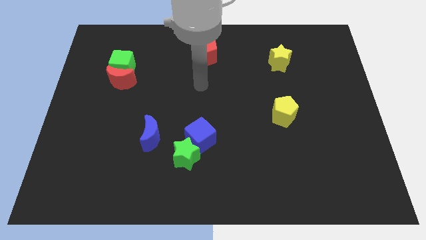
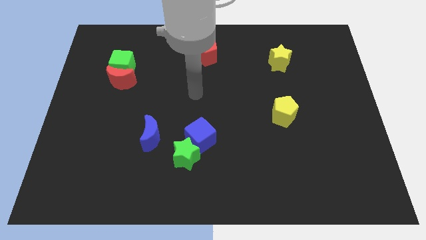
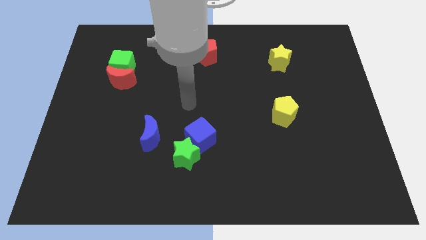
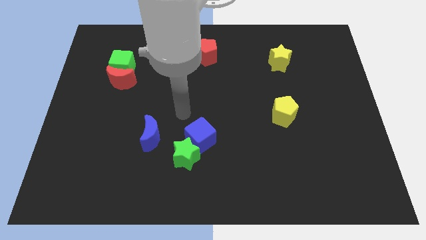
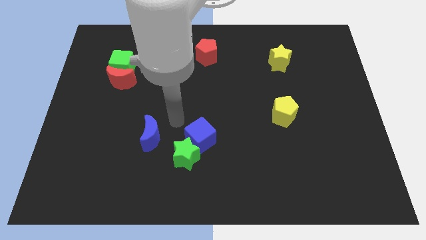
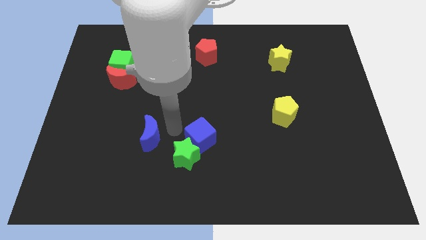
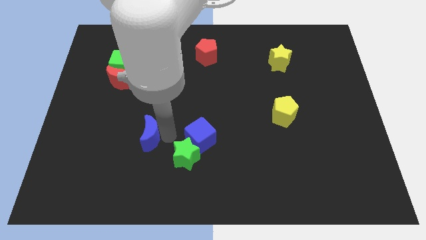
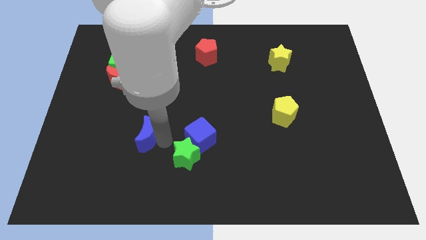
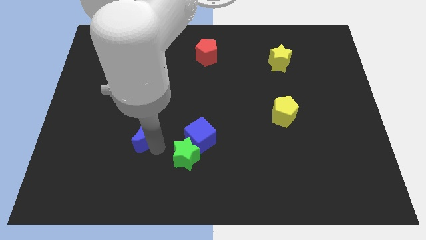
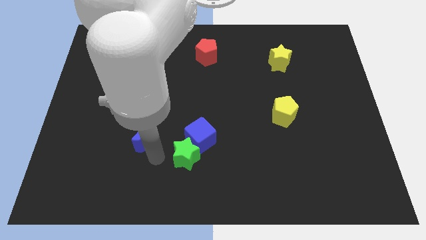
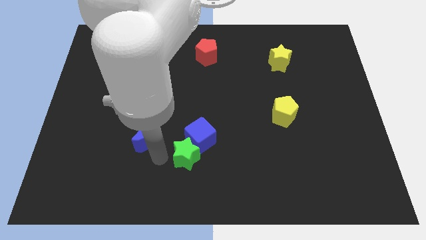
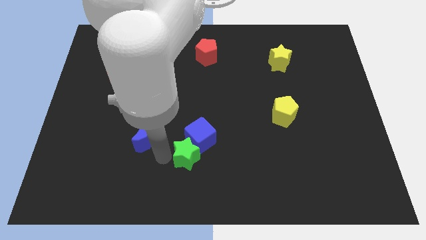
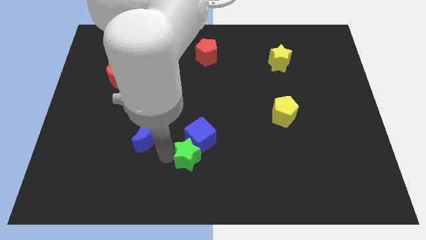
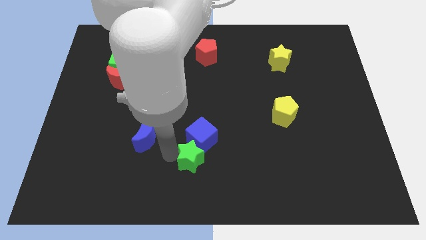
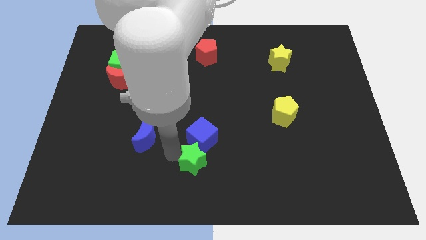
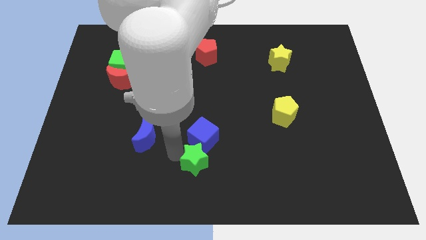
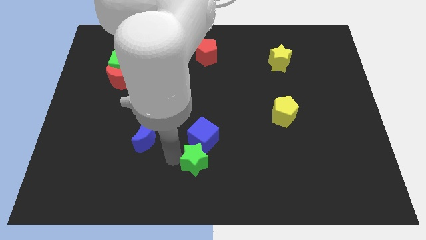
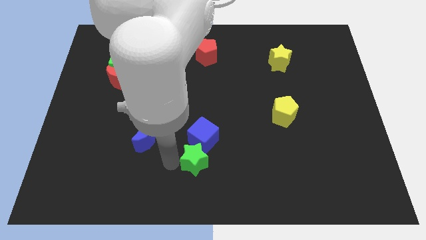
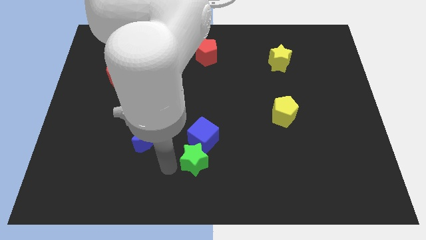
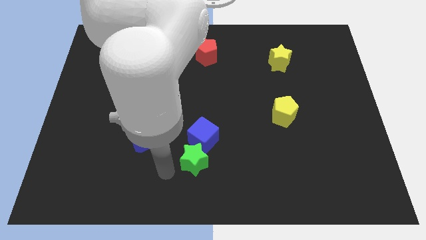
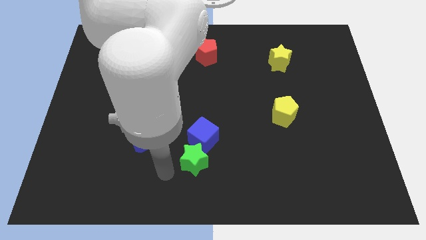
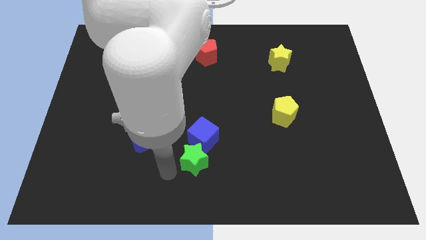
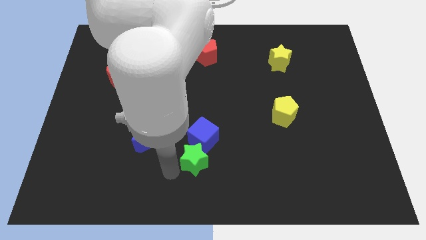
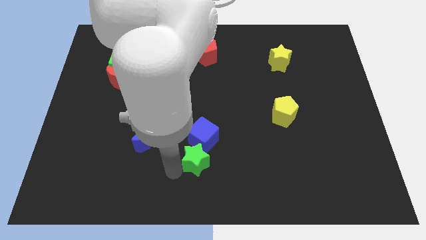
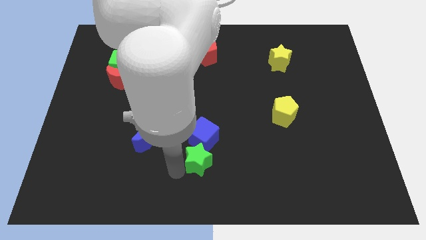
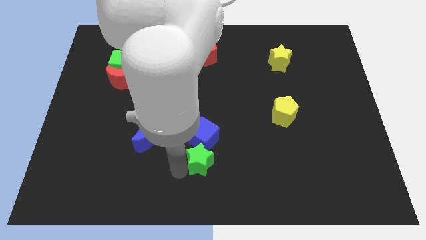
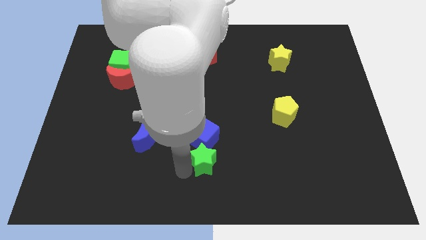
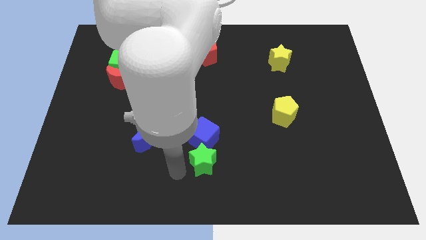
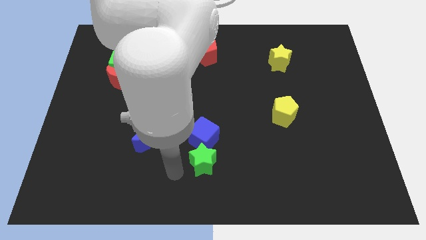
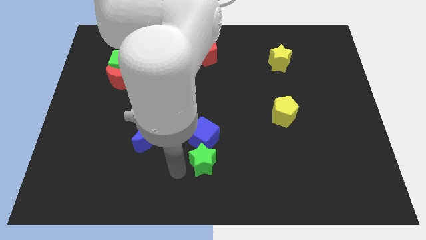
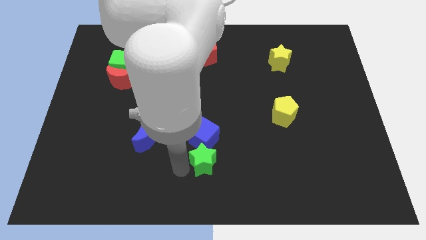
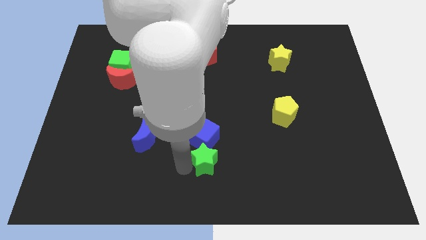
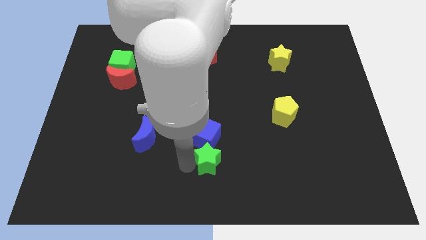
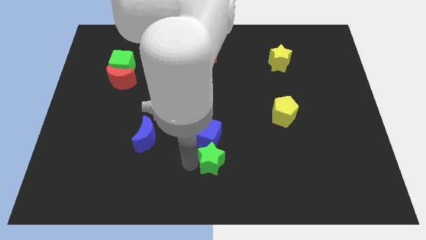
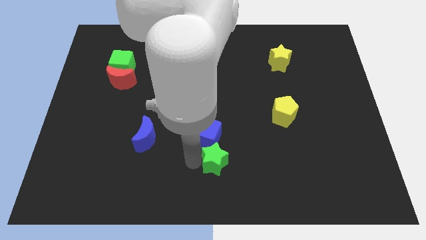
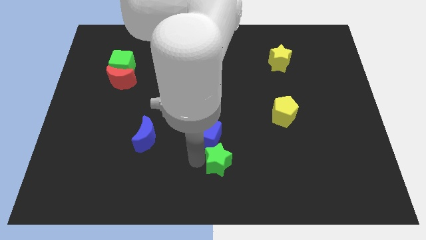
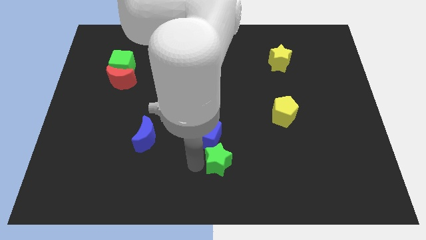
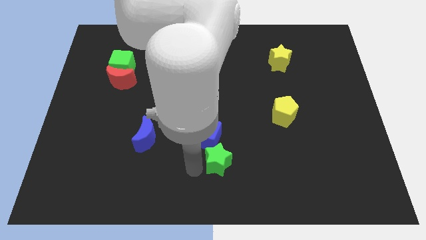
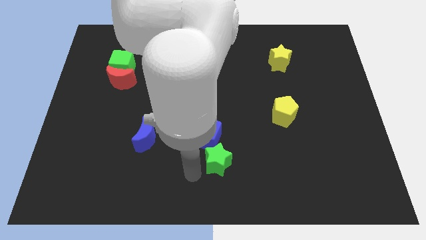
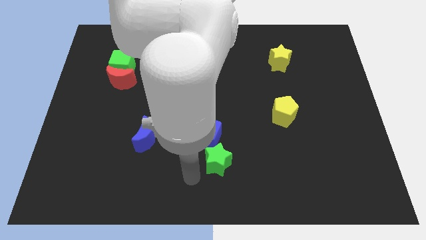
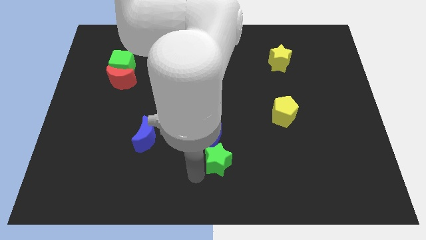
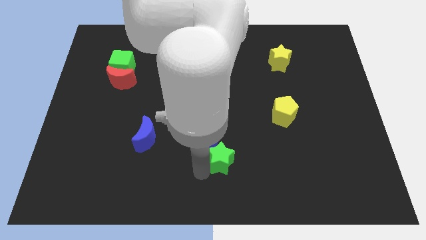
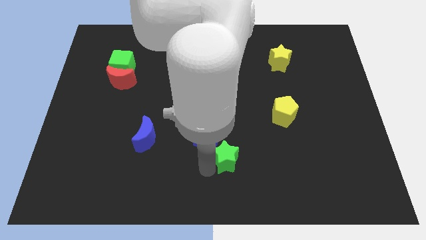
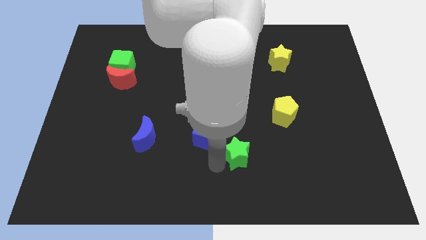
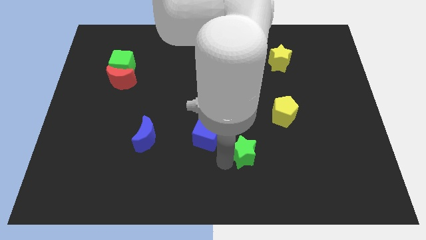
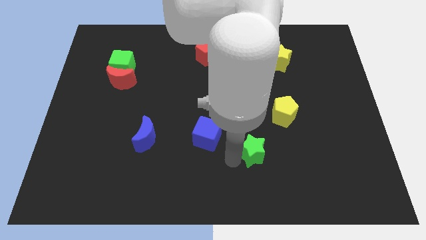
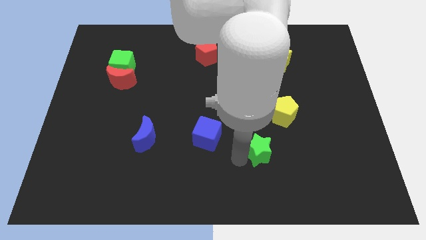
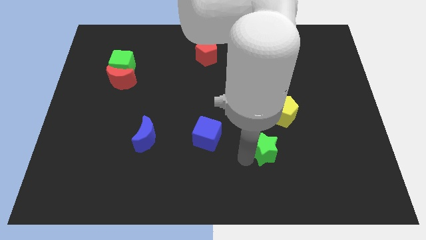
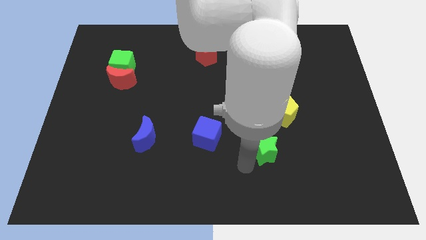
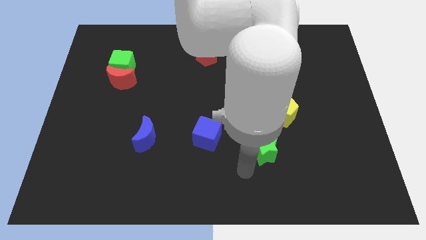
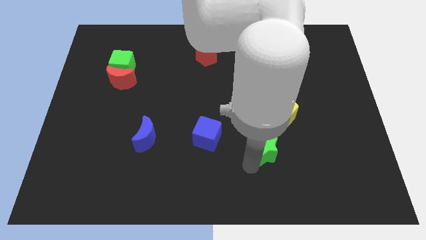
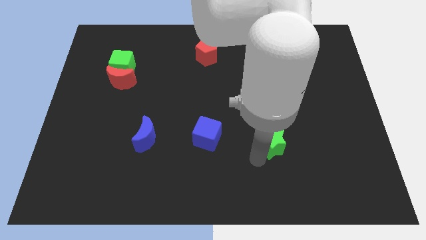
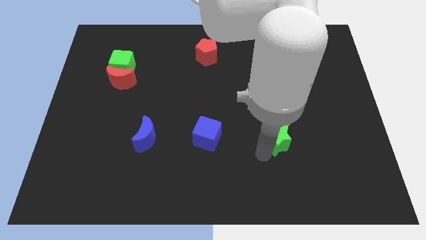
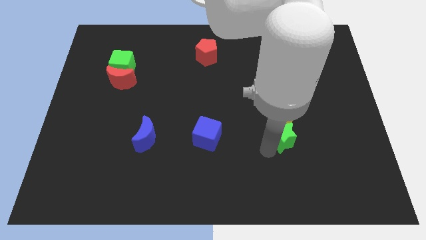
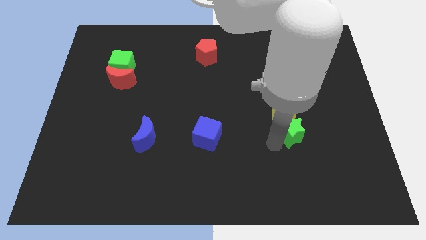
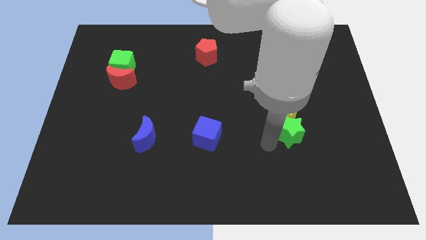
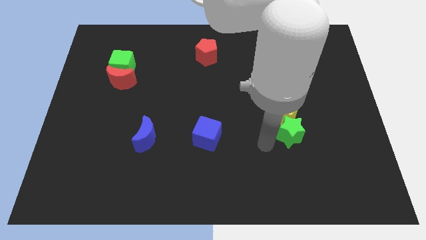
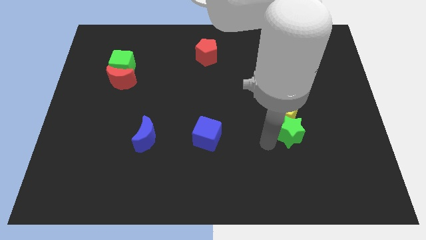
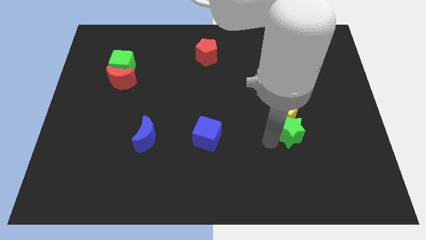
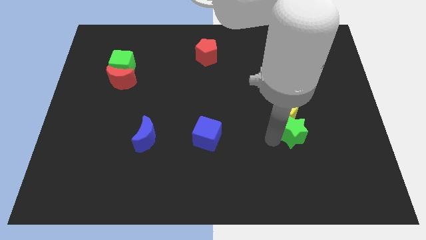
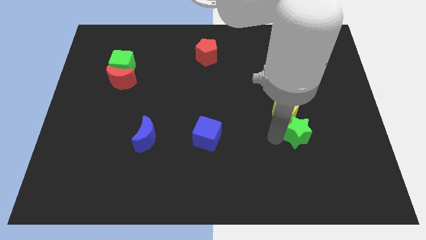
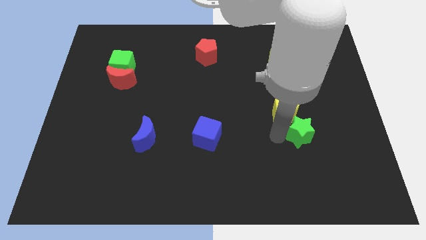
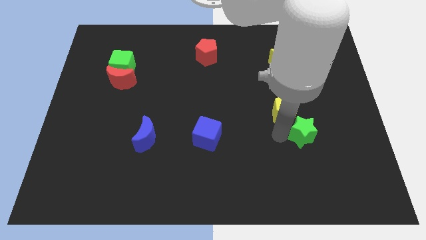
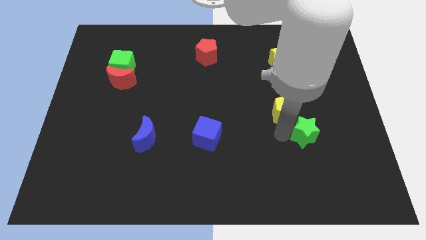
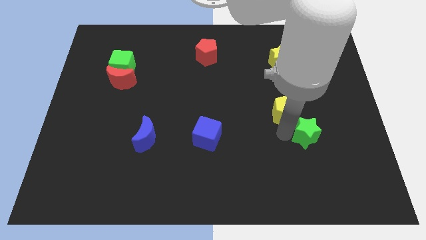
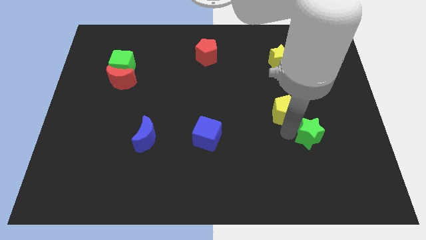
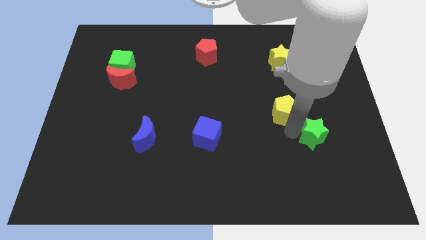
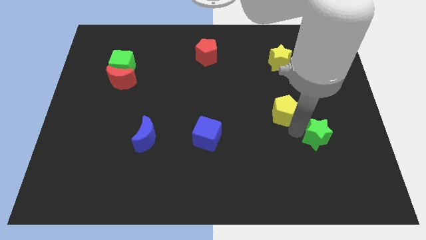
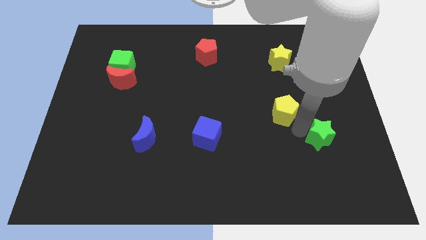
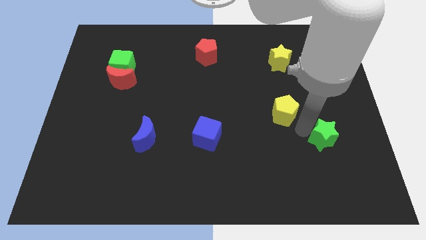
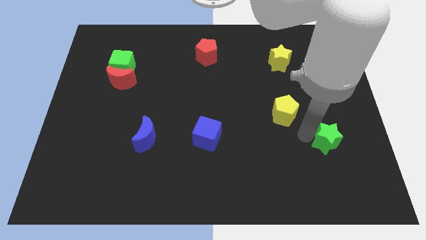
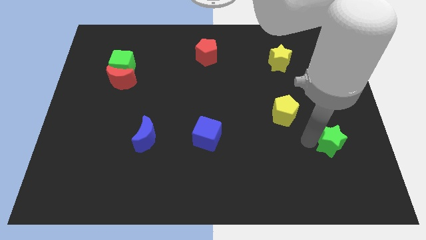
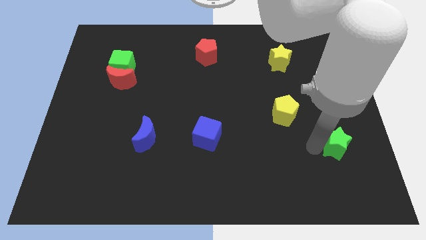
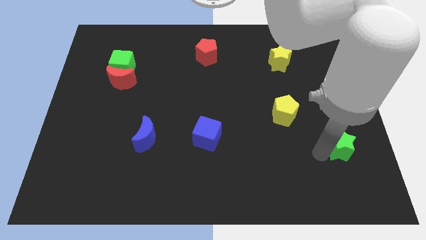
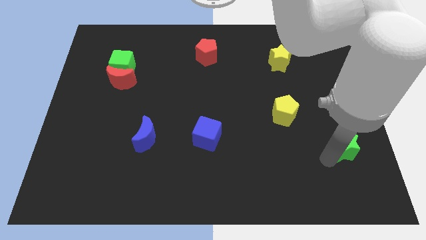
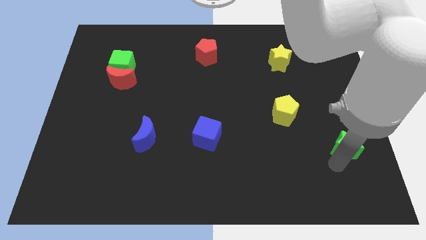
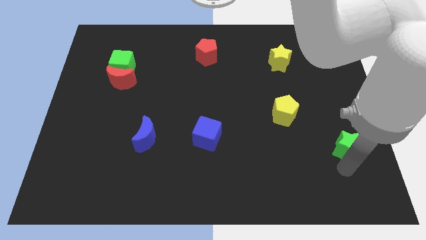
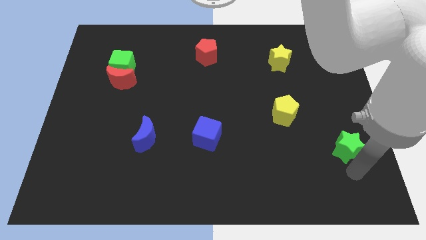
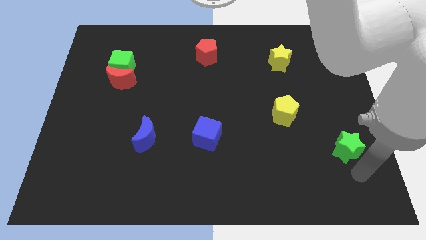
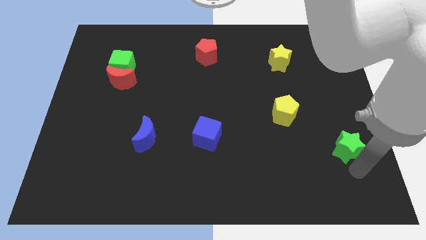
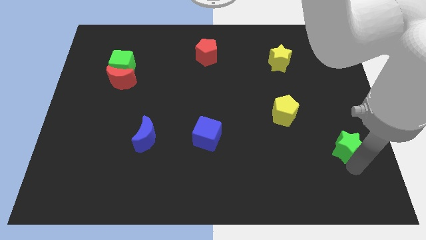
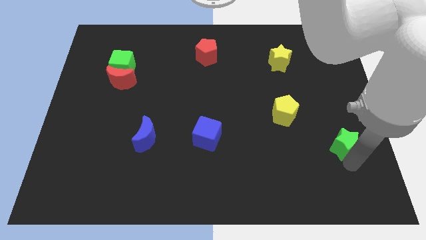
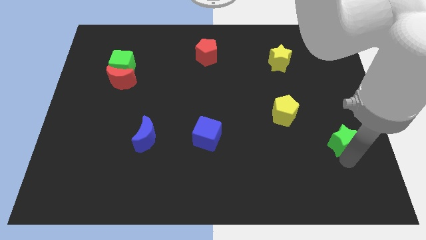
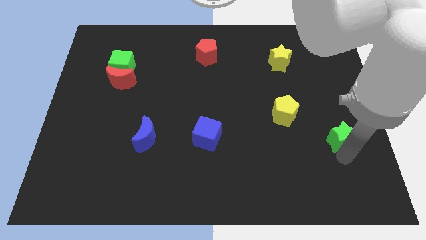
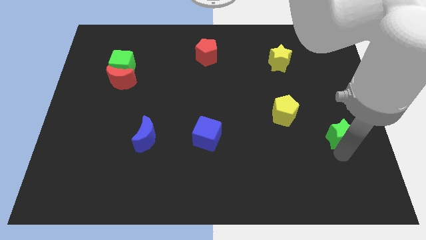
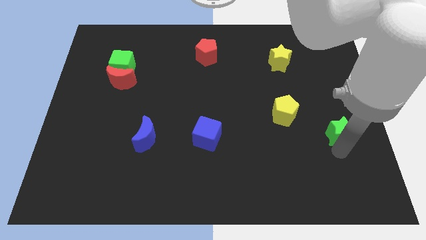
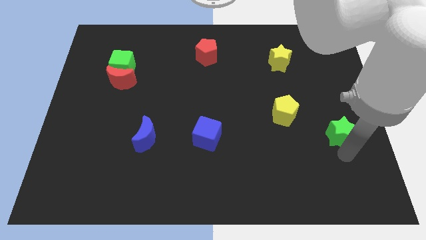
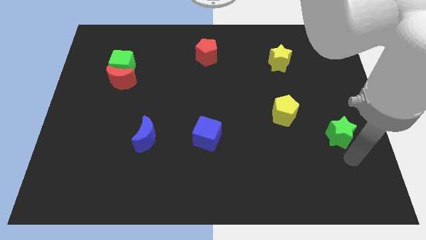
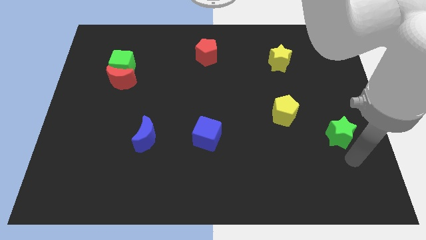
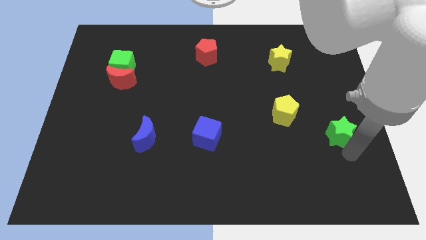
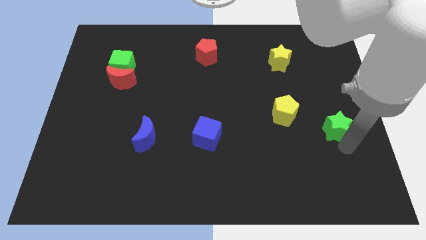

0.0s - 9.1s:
push the green star just right of the yellow pentagon
